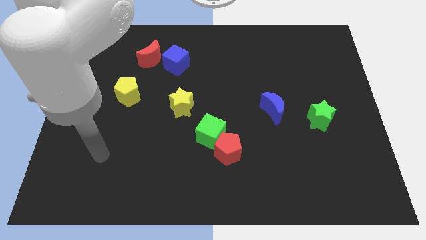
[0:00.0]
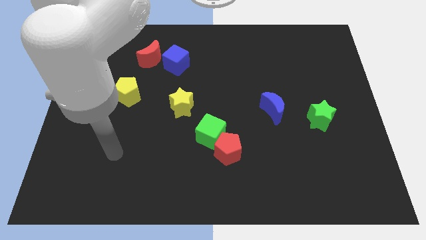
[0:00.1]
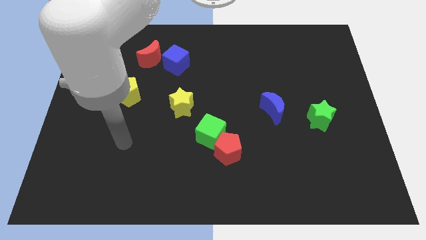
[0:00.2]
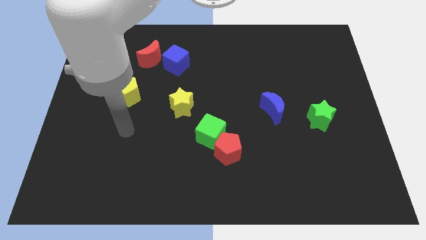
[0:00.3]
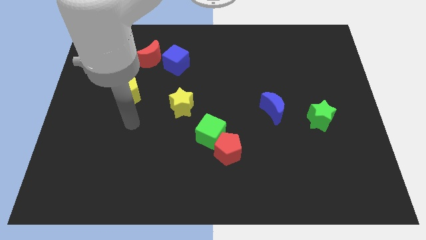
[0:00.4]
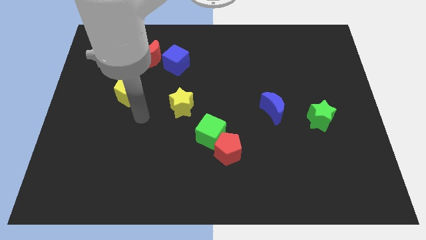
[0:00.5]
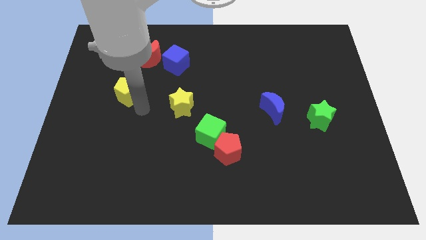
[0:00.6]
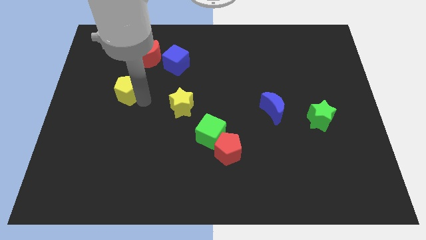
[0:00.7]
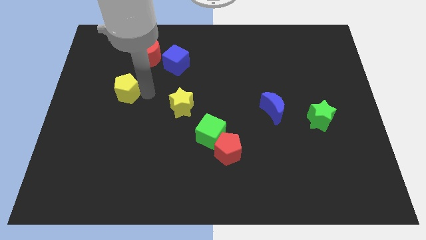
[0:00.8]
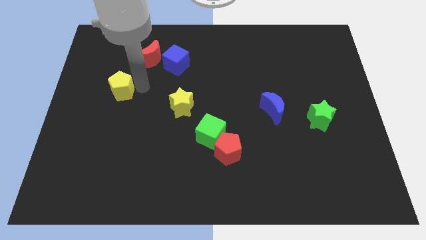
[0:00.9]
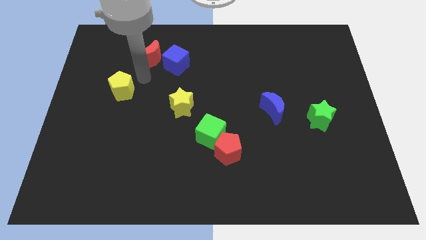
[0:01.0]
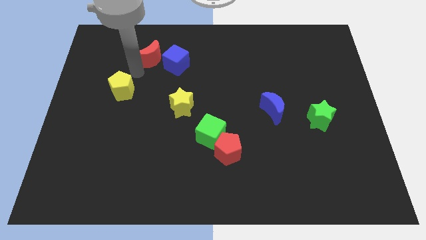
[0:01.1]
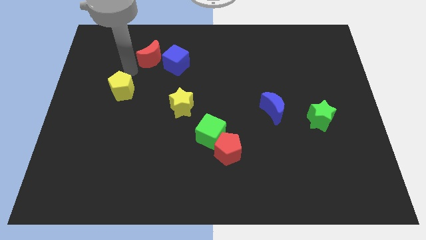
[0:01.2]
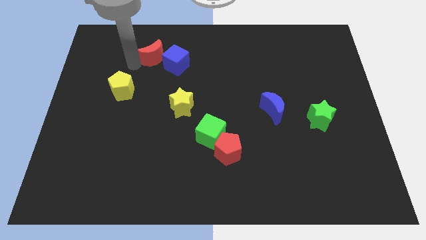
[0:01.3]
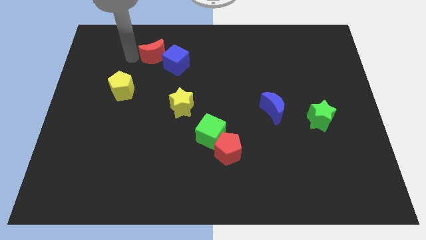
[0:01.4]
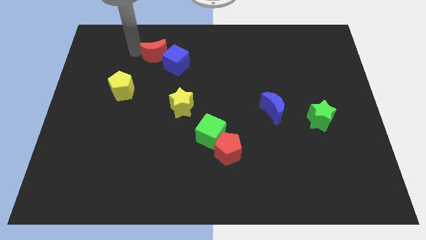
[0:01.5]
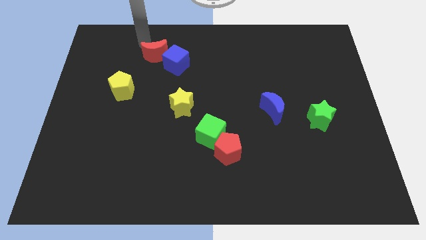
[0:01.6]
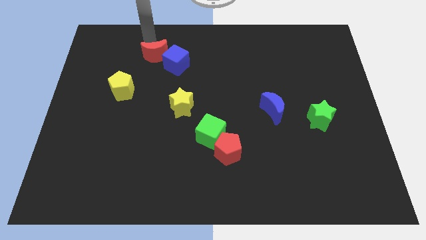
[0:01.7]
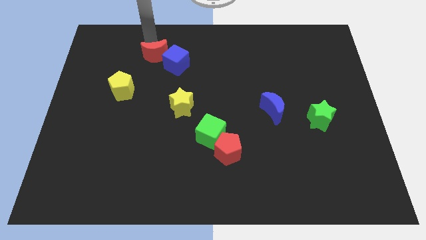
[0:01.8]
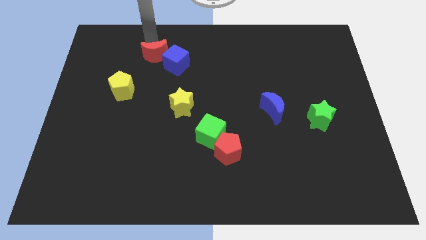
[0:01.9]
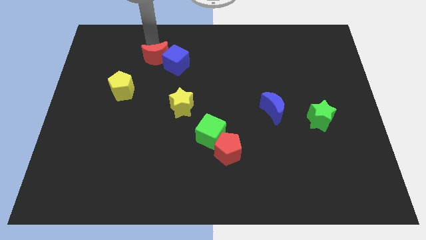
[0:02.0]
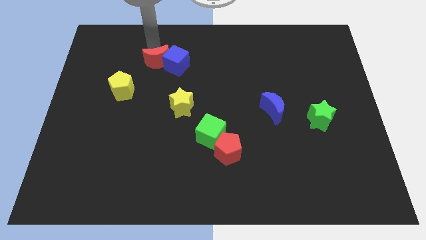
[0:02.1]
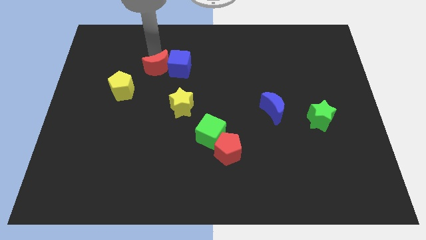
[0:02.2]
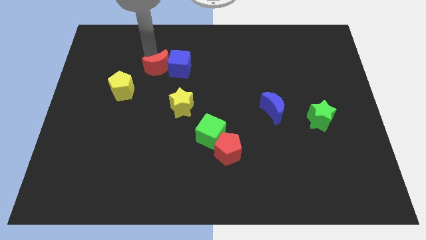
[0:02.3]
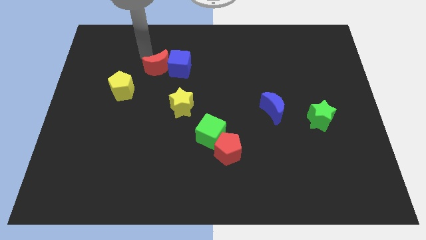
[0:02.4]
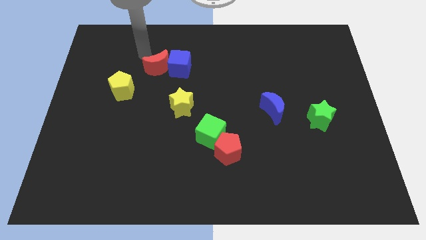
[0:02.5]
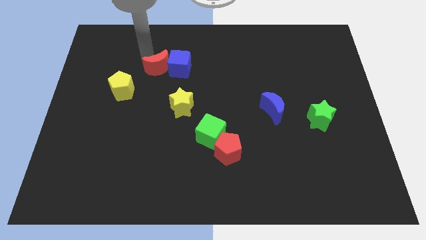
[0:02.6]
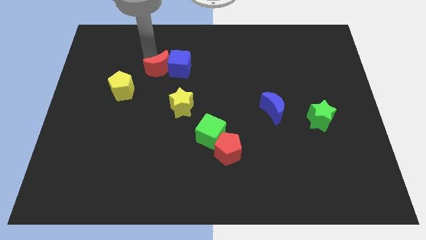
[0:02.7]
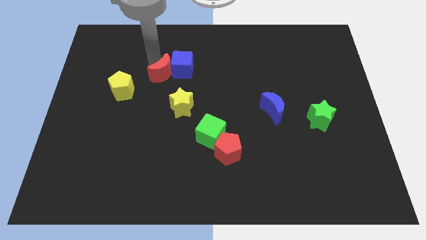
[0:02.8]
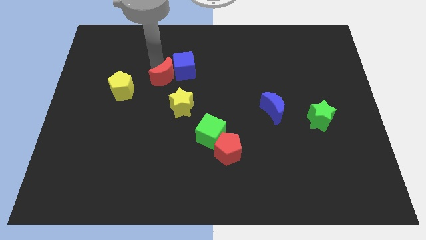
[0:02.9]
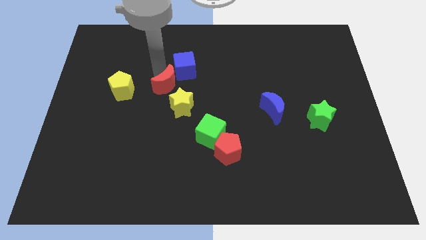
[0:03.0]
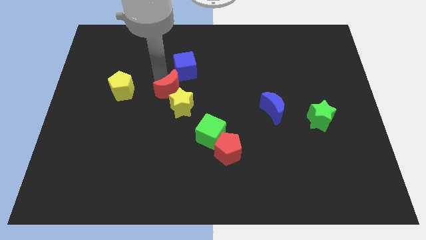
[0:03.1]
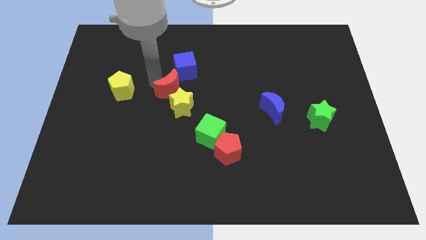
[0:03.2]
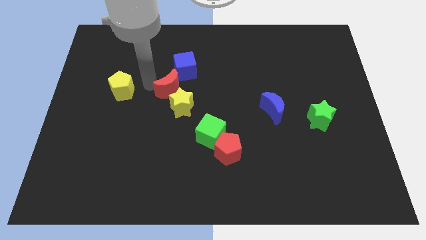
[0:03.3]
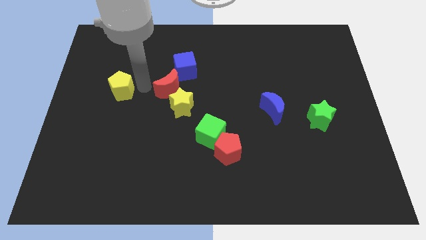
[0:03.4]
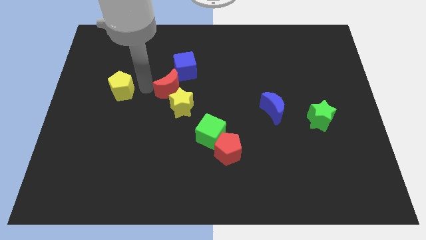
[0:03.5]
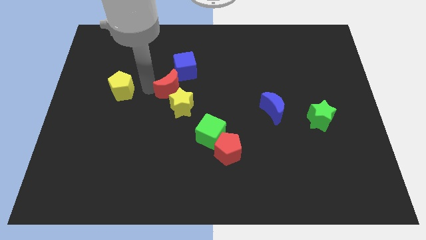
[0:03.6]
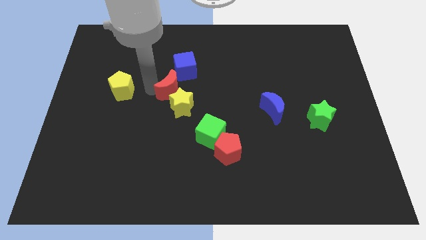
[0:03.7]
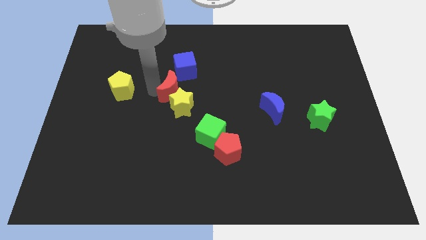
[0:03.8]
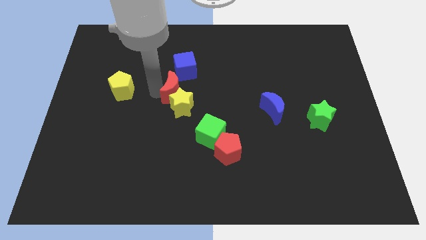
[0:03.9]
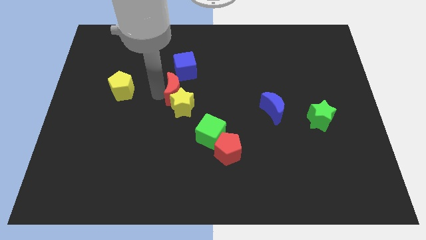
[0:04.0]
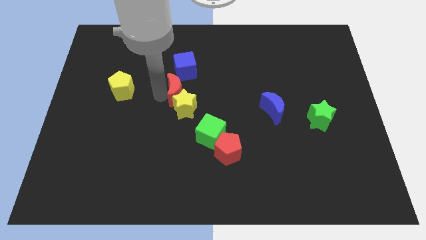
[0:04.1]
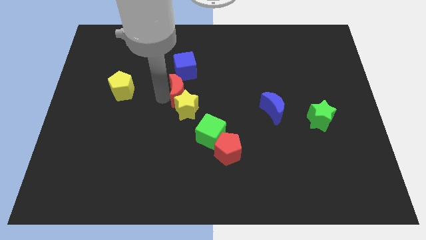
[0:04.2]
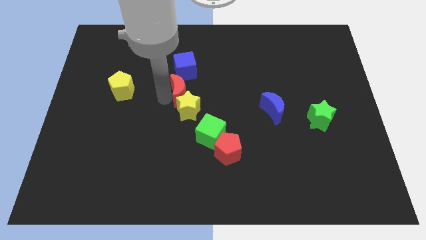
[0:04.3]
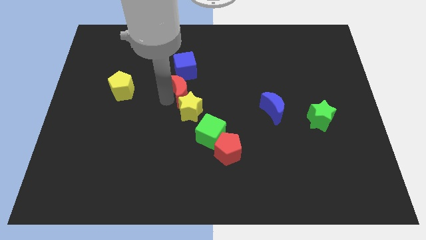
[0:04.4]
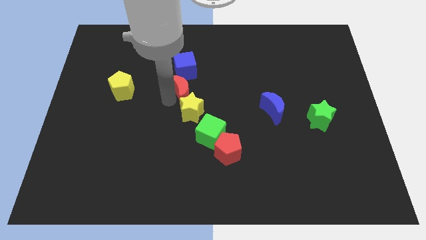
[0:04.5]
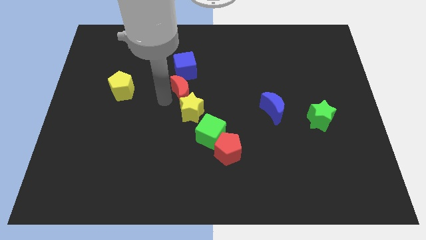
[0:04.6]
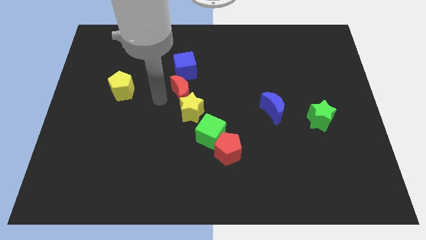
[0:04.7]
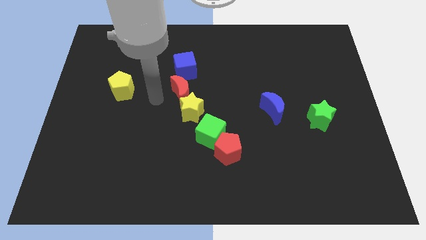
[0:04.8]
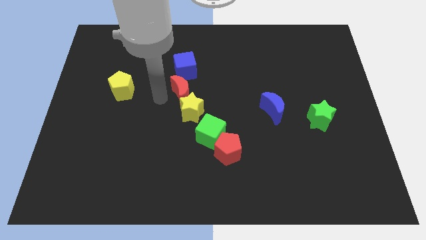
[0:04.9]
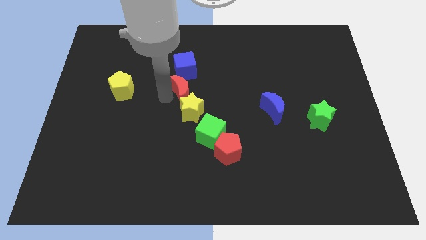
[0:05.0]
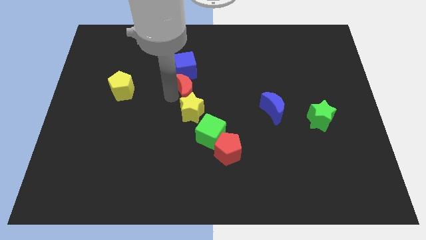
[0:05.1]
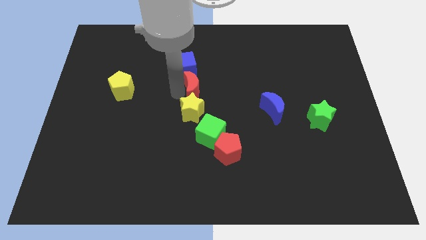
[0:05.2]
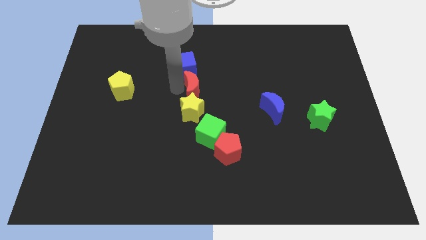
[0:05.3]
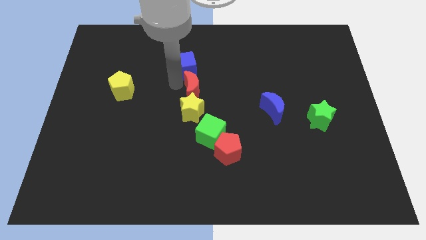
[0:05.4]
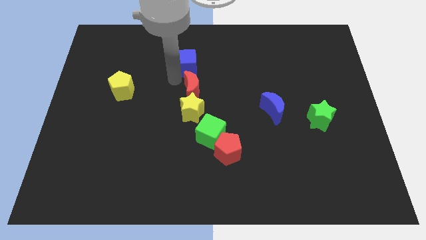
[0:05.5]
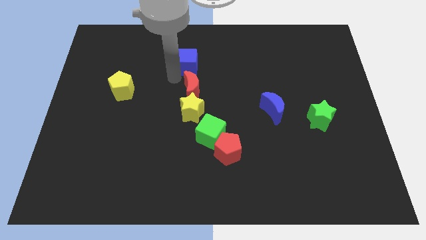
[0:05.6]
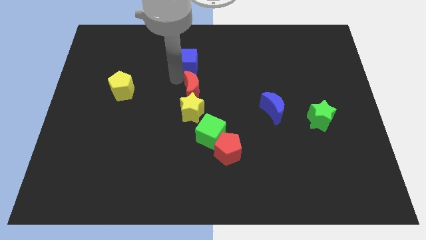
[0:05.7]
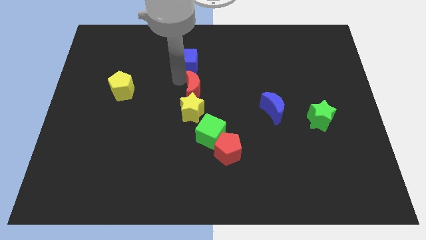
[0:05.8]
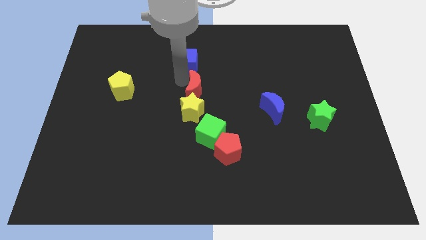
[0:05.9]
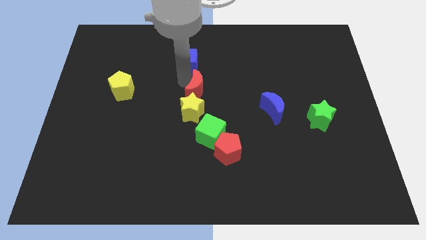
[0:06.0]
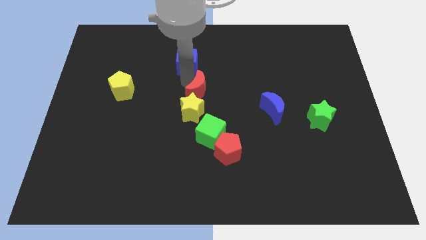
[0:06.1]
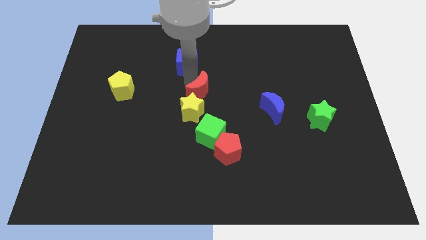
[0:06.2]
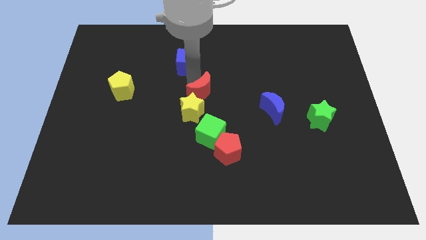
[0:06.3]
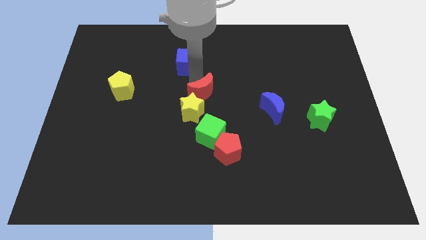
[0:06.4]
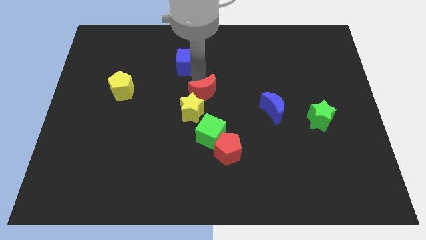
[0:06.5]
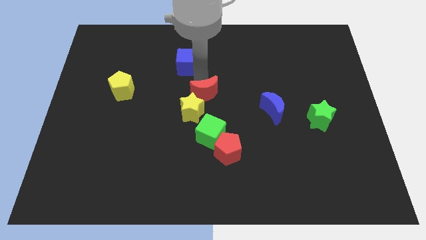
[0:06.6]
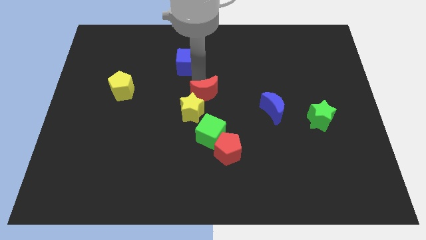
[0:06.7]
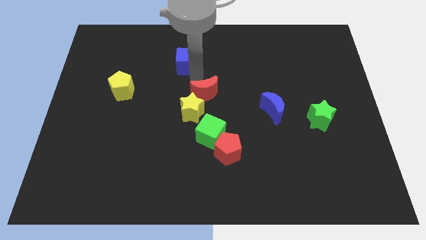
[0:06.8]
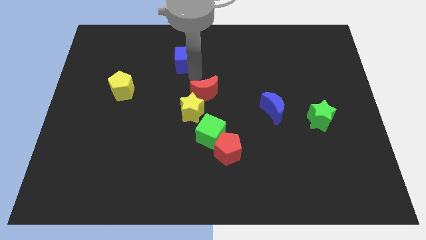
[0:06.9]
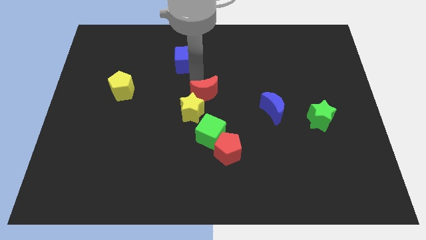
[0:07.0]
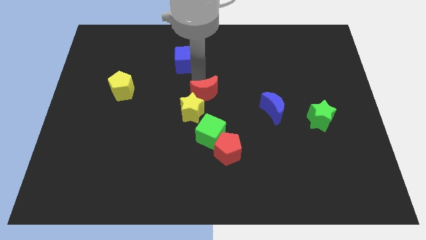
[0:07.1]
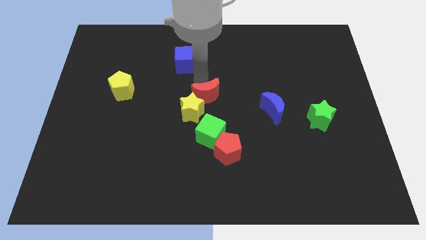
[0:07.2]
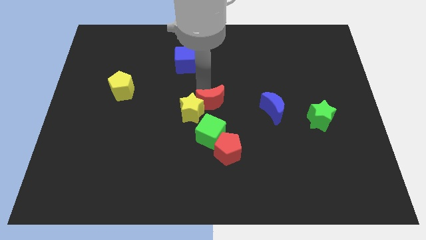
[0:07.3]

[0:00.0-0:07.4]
move the red moon downwards and to the right diagonally

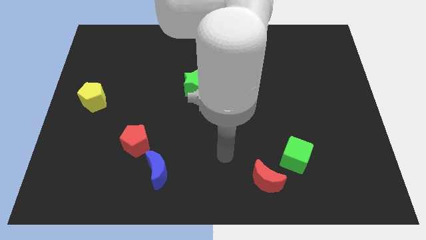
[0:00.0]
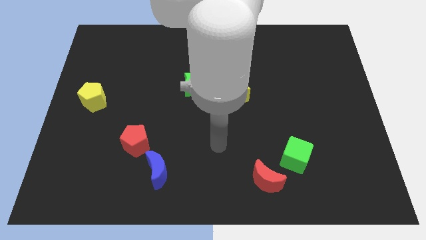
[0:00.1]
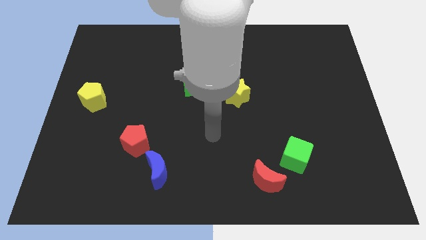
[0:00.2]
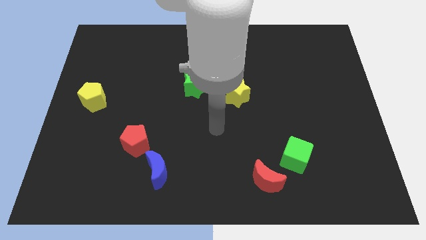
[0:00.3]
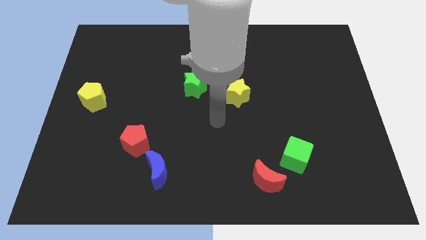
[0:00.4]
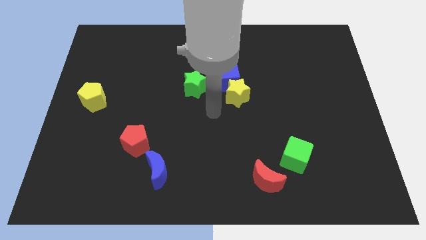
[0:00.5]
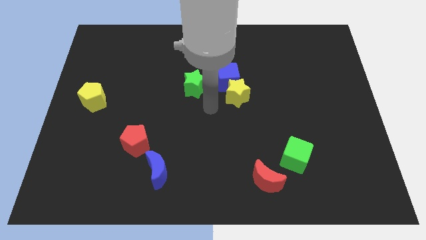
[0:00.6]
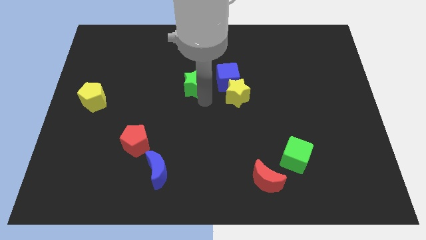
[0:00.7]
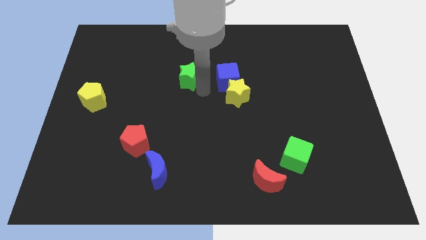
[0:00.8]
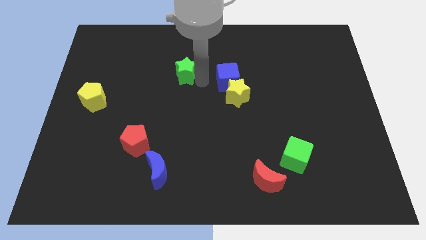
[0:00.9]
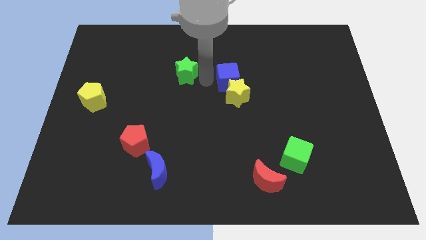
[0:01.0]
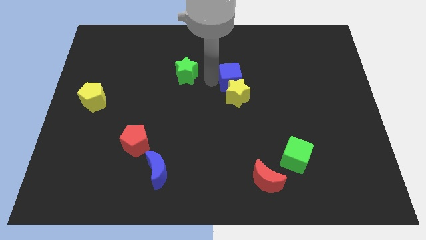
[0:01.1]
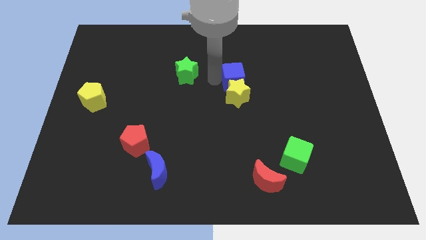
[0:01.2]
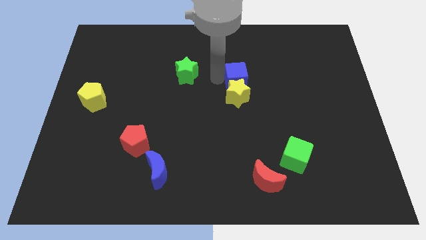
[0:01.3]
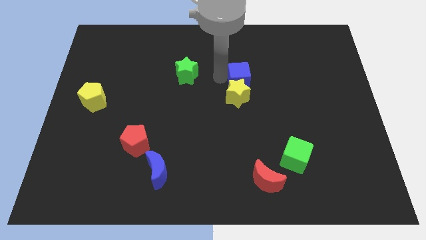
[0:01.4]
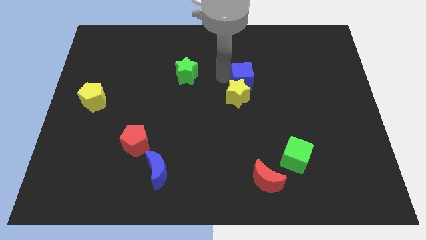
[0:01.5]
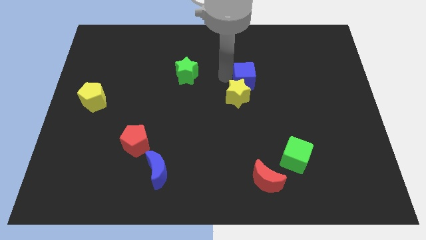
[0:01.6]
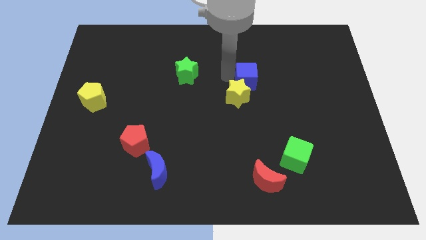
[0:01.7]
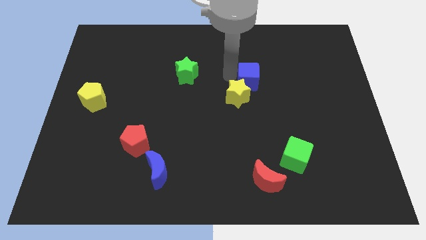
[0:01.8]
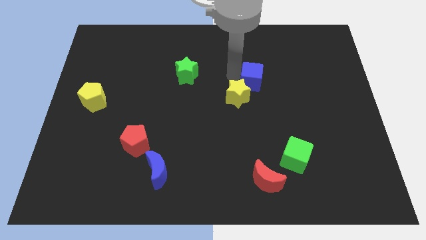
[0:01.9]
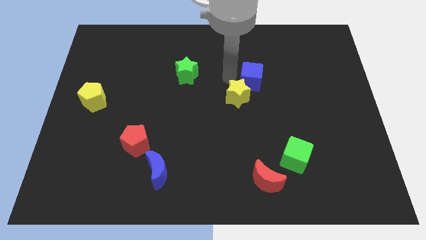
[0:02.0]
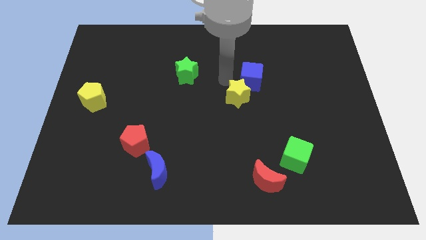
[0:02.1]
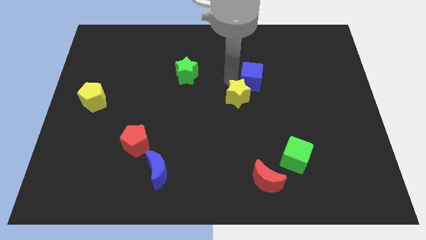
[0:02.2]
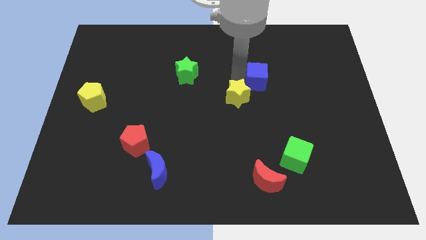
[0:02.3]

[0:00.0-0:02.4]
slightly move the blue cube right
